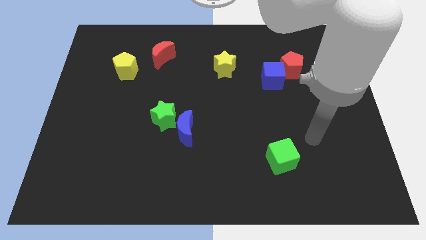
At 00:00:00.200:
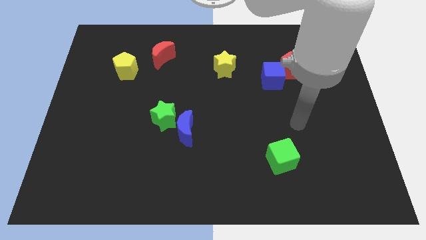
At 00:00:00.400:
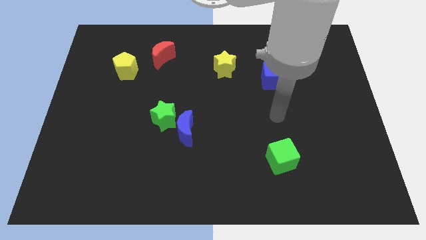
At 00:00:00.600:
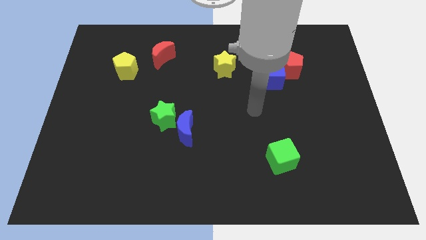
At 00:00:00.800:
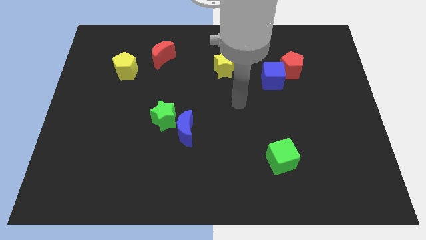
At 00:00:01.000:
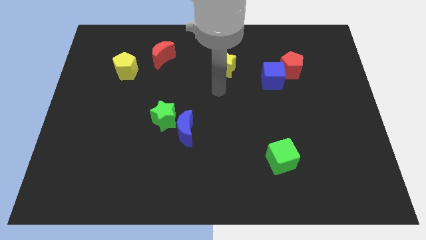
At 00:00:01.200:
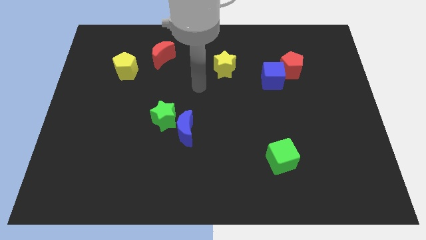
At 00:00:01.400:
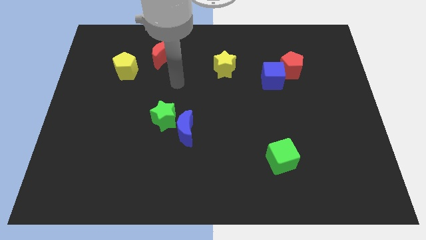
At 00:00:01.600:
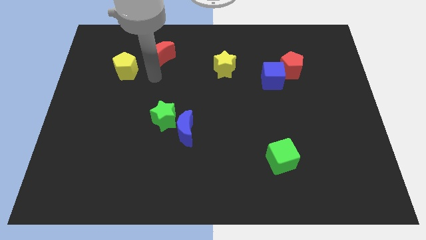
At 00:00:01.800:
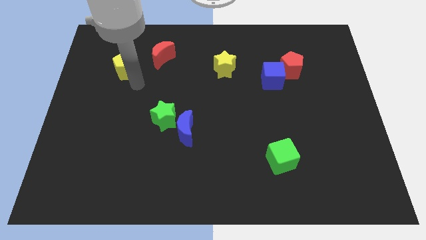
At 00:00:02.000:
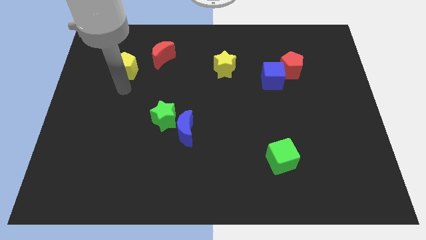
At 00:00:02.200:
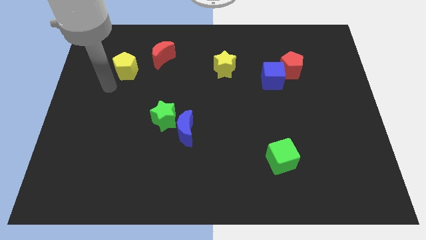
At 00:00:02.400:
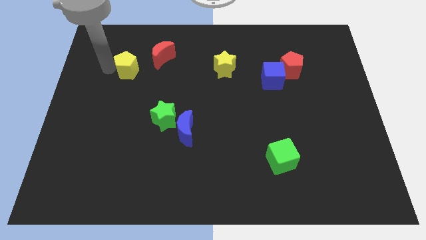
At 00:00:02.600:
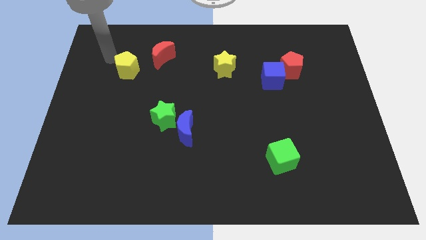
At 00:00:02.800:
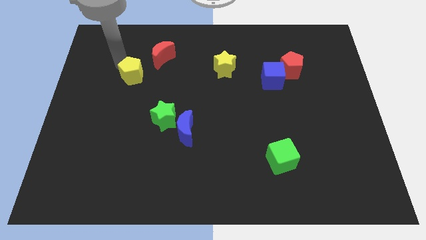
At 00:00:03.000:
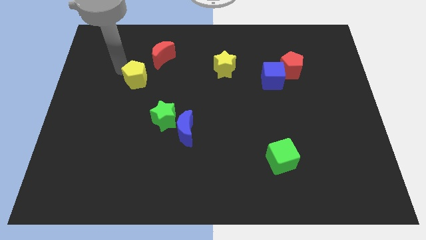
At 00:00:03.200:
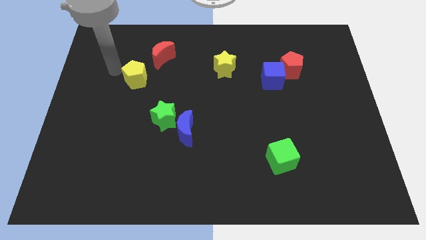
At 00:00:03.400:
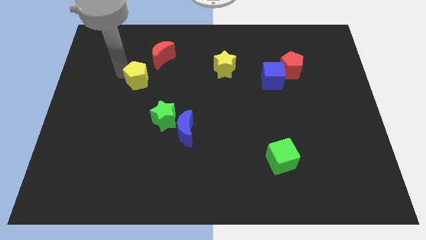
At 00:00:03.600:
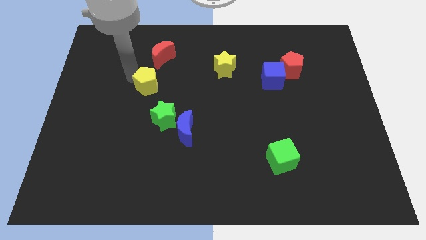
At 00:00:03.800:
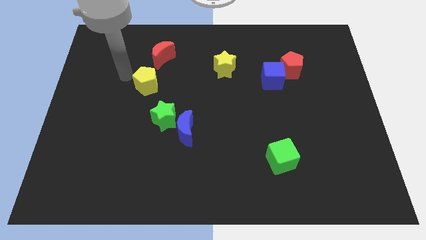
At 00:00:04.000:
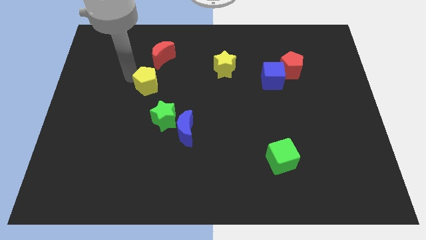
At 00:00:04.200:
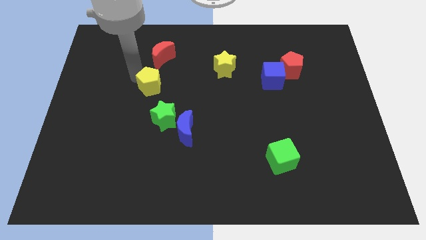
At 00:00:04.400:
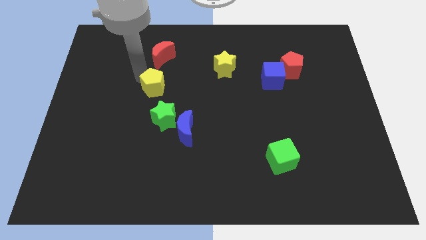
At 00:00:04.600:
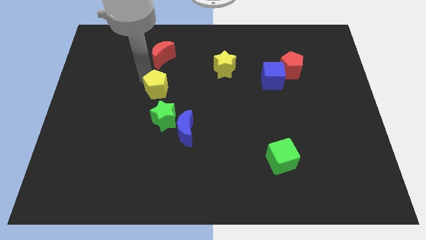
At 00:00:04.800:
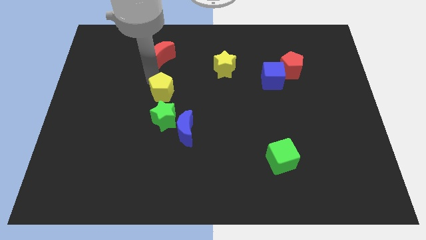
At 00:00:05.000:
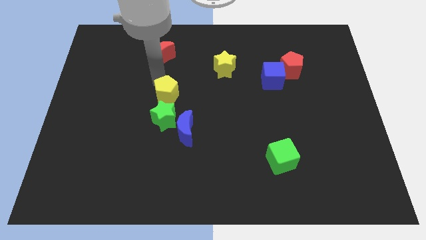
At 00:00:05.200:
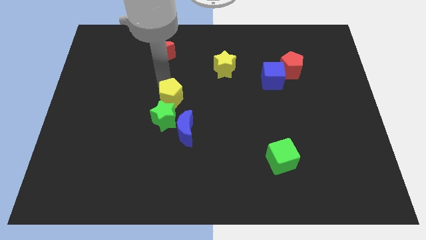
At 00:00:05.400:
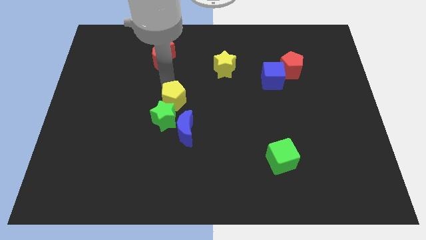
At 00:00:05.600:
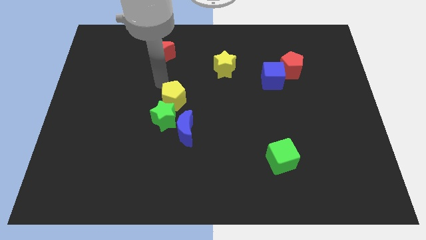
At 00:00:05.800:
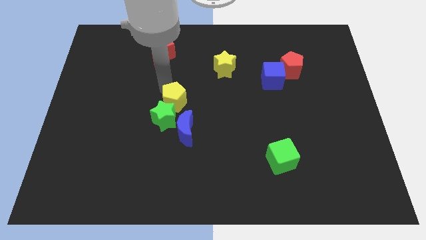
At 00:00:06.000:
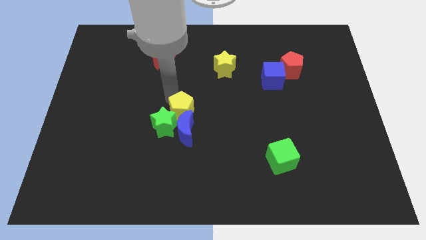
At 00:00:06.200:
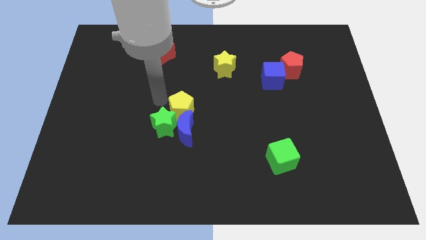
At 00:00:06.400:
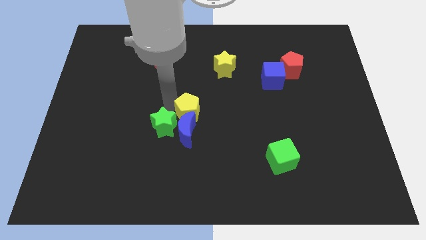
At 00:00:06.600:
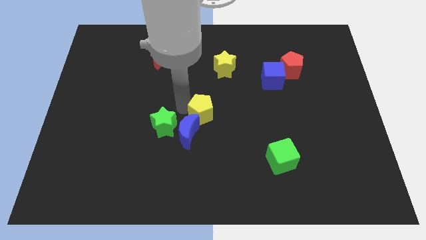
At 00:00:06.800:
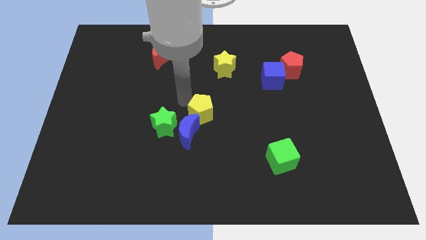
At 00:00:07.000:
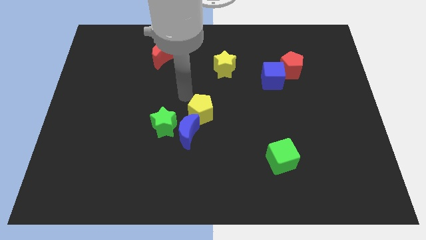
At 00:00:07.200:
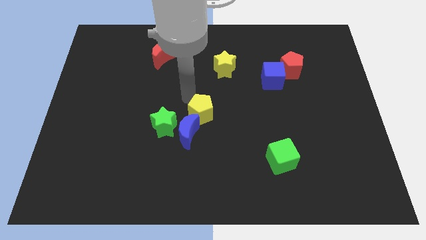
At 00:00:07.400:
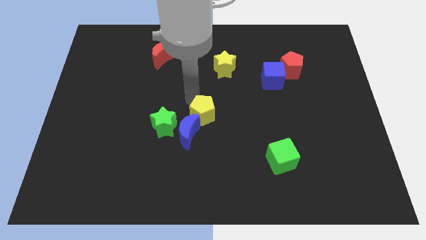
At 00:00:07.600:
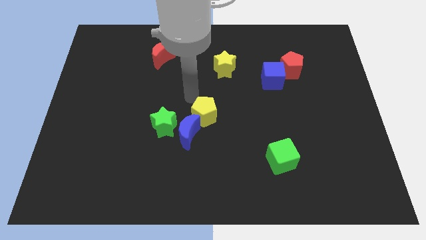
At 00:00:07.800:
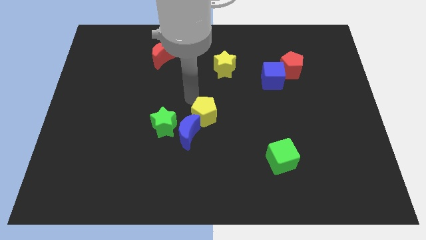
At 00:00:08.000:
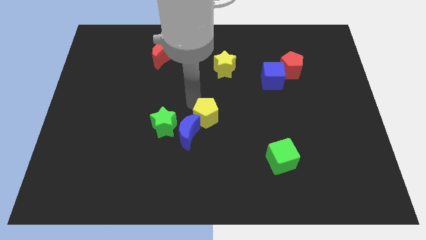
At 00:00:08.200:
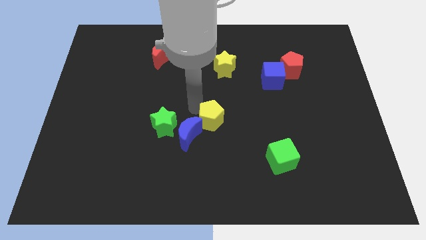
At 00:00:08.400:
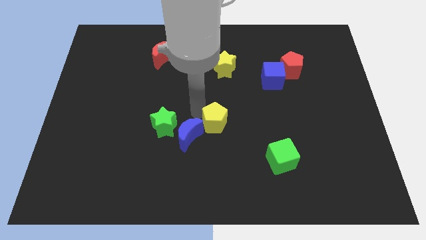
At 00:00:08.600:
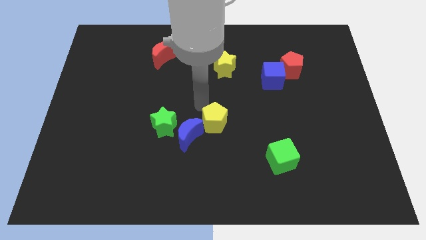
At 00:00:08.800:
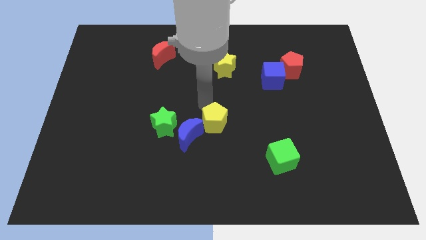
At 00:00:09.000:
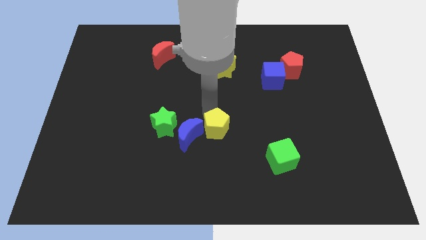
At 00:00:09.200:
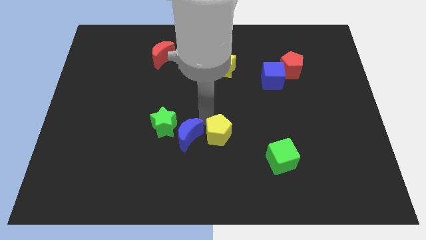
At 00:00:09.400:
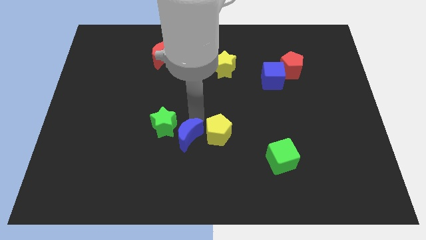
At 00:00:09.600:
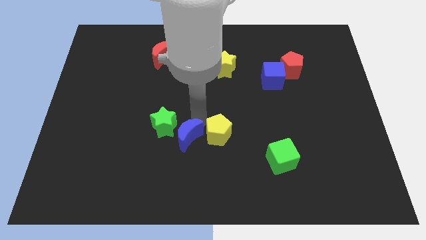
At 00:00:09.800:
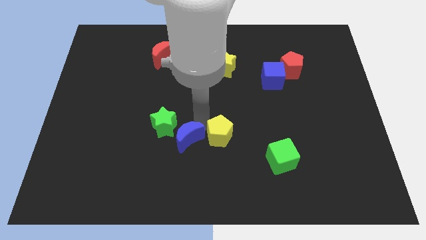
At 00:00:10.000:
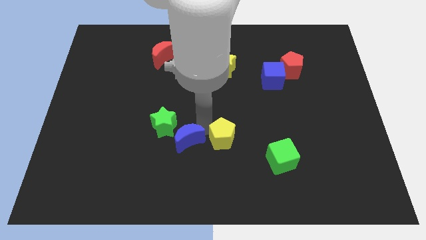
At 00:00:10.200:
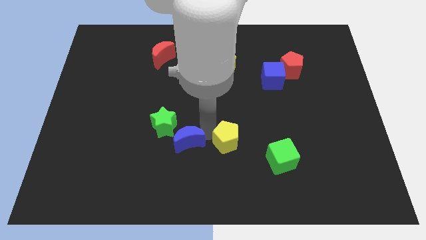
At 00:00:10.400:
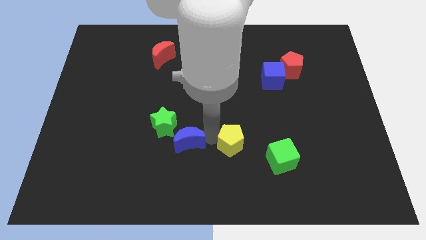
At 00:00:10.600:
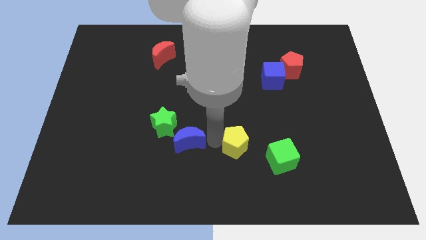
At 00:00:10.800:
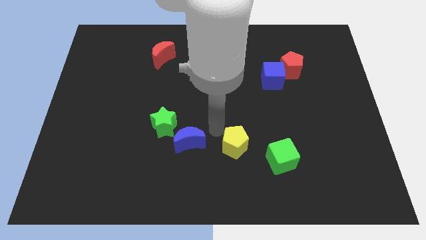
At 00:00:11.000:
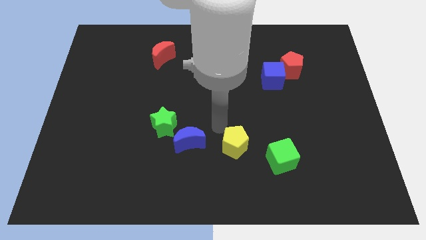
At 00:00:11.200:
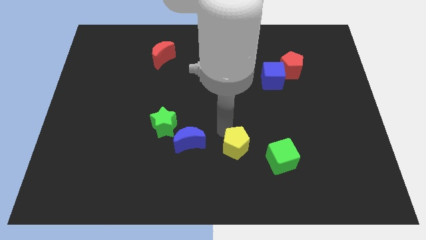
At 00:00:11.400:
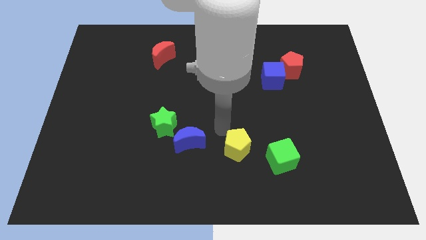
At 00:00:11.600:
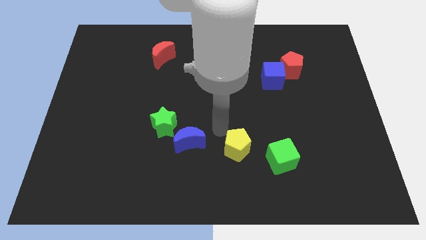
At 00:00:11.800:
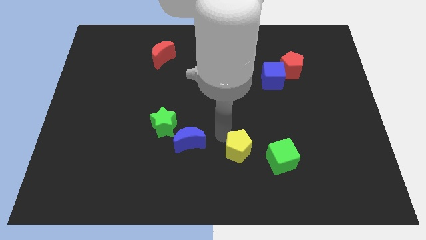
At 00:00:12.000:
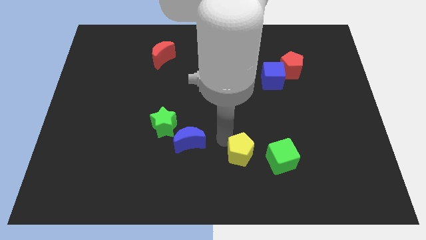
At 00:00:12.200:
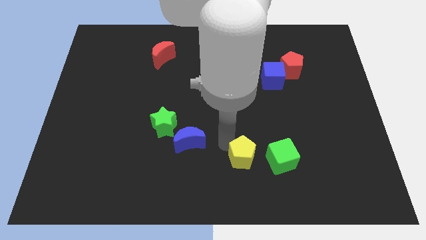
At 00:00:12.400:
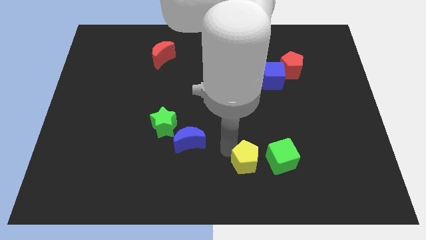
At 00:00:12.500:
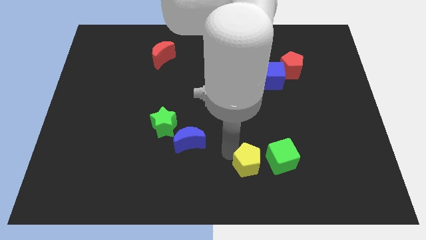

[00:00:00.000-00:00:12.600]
push the yellow pentagon diagonally down and to the left of the green cube
